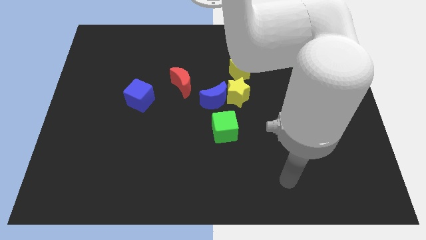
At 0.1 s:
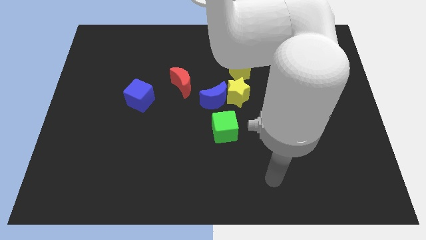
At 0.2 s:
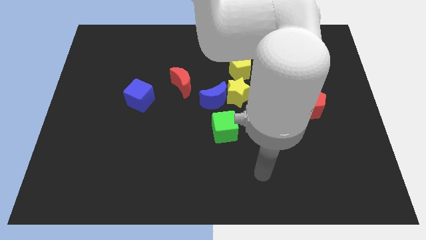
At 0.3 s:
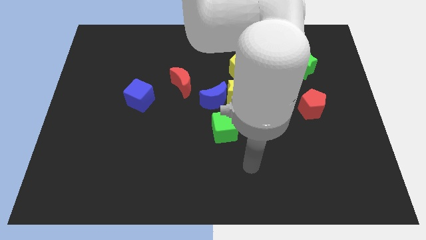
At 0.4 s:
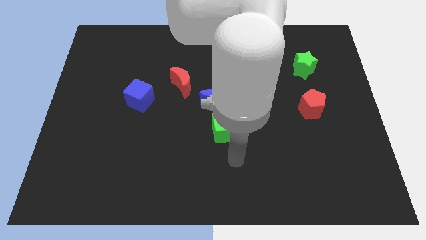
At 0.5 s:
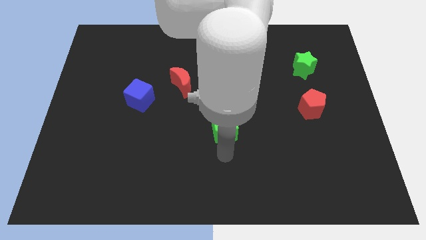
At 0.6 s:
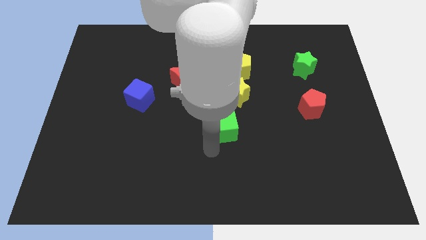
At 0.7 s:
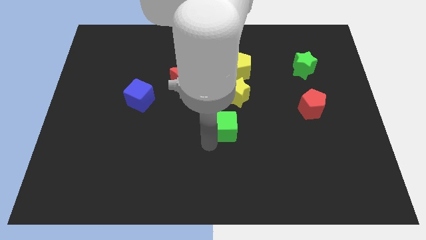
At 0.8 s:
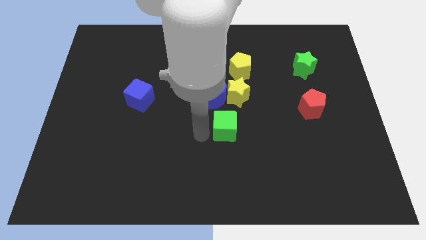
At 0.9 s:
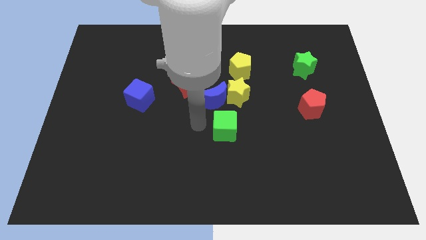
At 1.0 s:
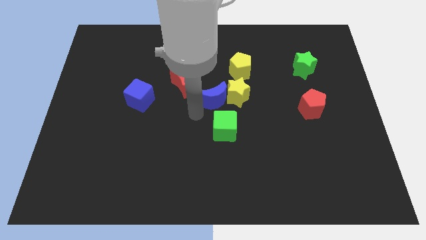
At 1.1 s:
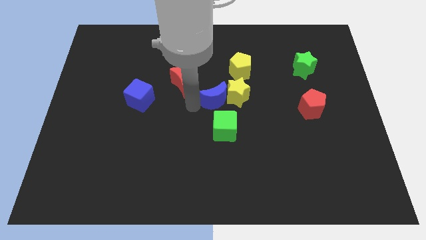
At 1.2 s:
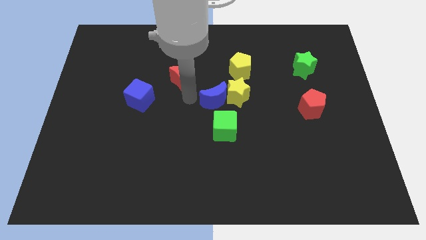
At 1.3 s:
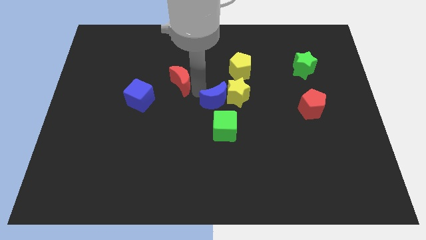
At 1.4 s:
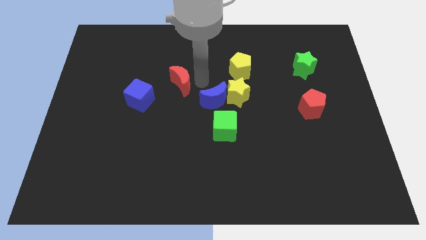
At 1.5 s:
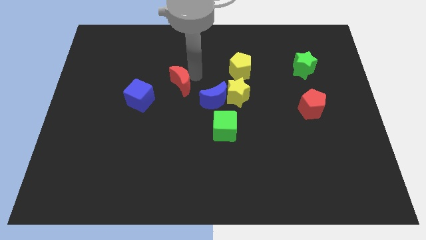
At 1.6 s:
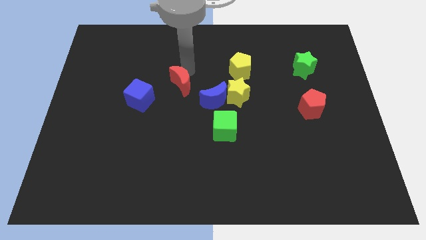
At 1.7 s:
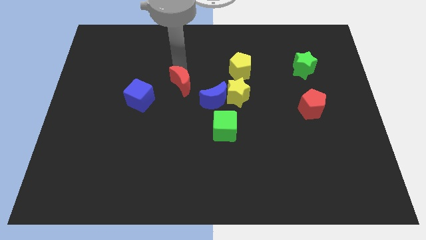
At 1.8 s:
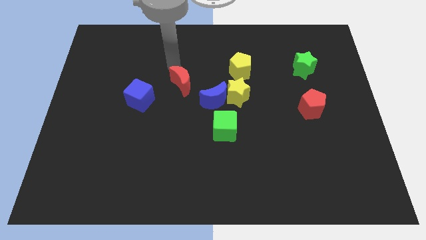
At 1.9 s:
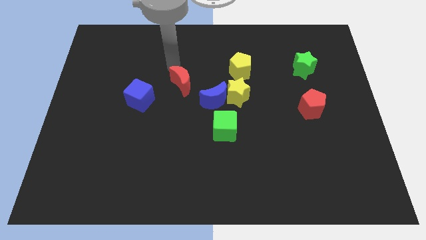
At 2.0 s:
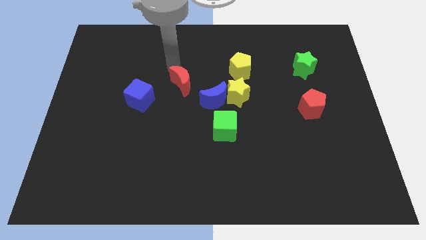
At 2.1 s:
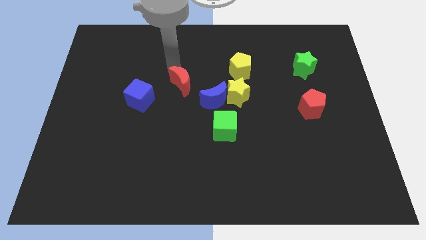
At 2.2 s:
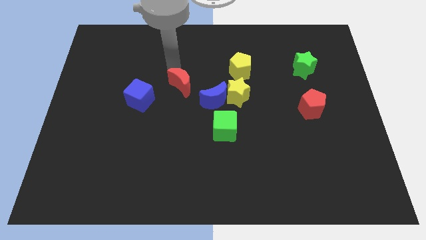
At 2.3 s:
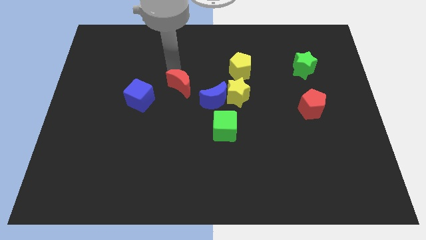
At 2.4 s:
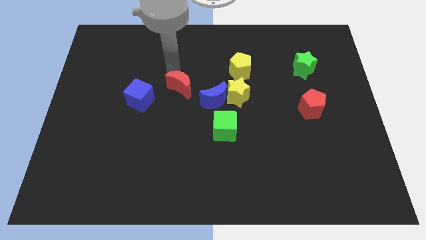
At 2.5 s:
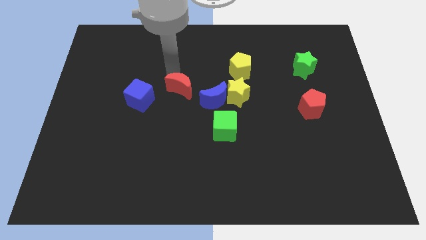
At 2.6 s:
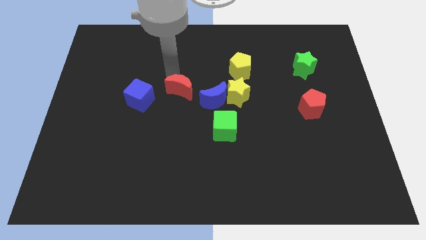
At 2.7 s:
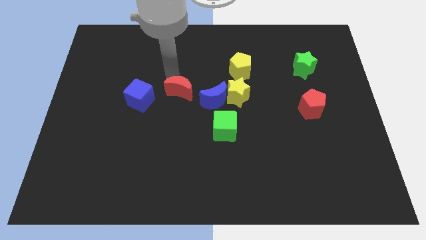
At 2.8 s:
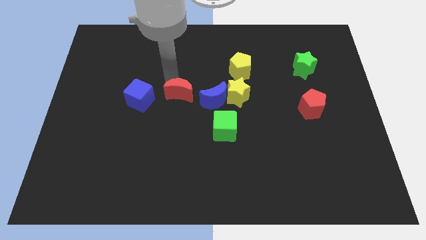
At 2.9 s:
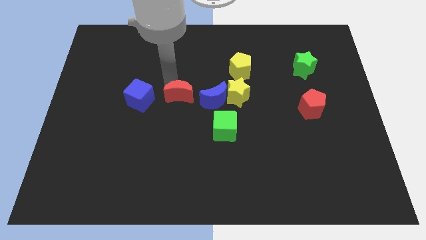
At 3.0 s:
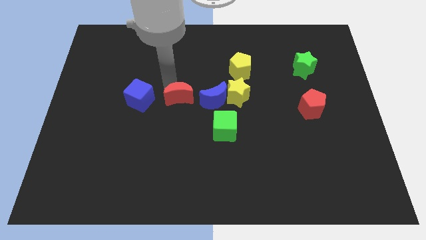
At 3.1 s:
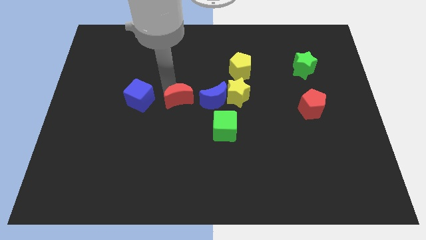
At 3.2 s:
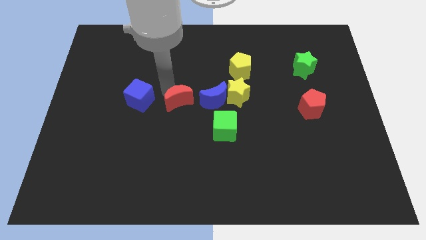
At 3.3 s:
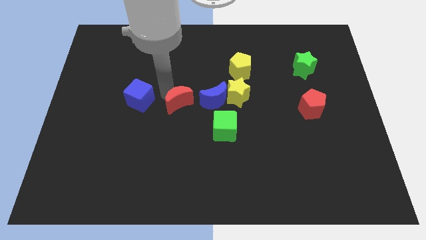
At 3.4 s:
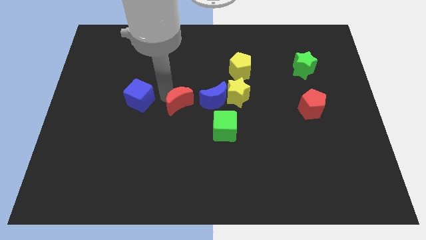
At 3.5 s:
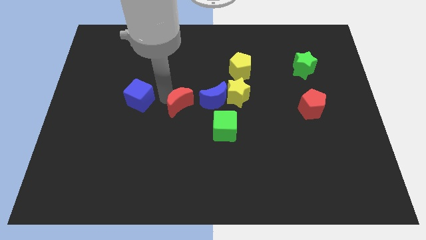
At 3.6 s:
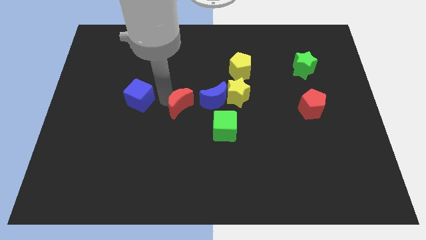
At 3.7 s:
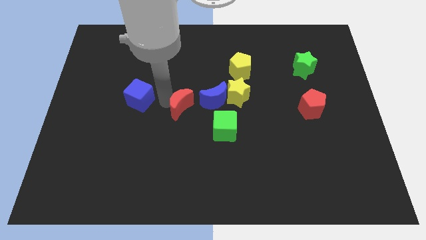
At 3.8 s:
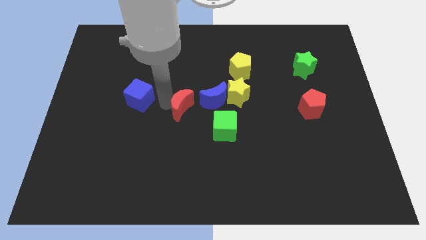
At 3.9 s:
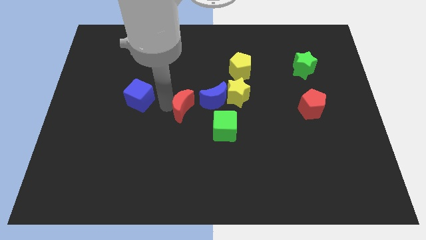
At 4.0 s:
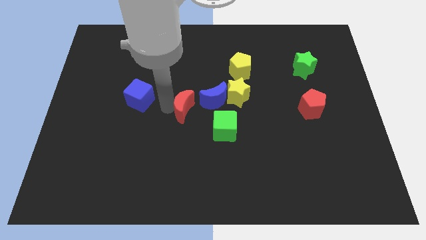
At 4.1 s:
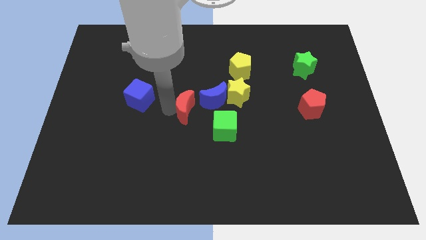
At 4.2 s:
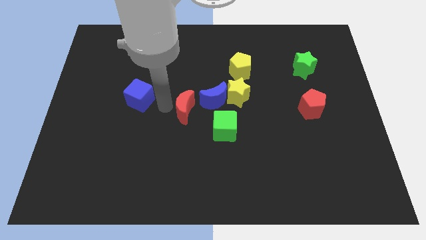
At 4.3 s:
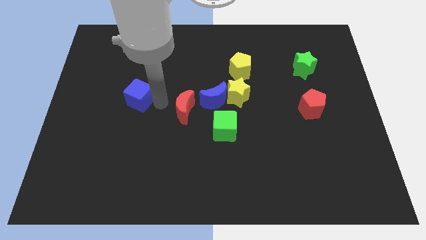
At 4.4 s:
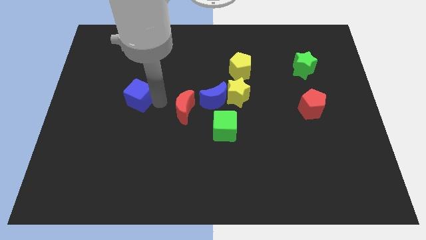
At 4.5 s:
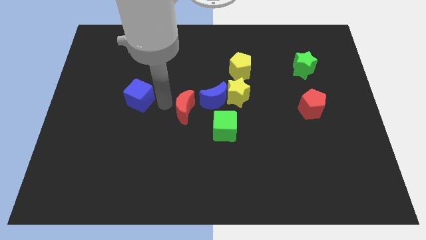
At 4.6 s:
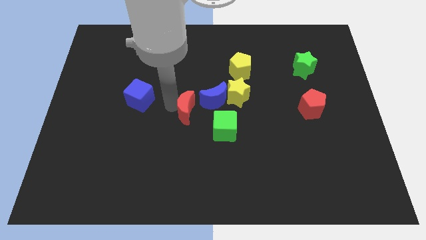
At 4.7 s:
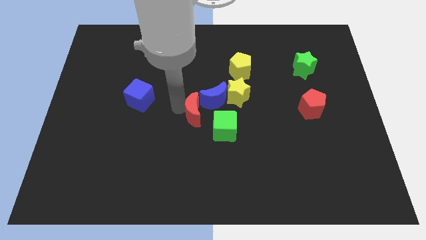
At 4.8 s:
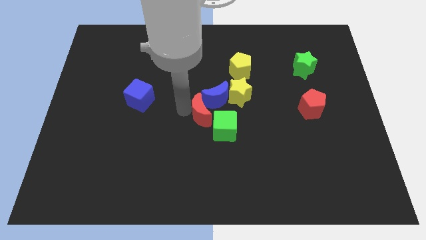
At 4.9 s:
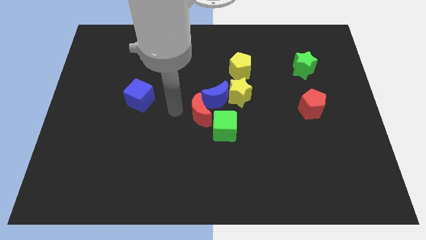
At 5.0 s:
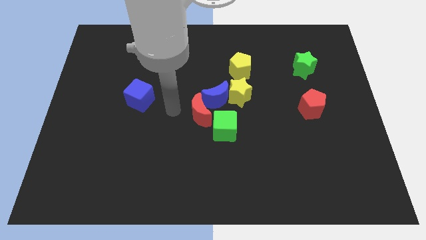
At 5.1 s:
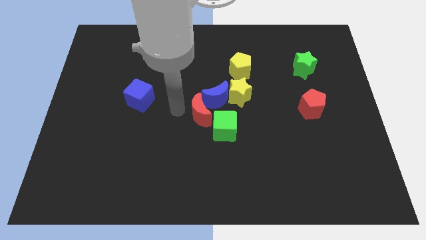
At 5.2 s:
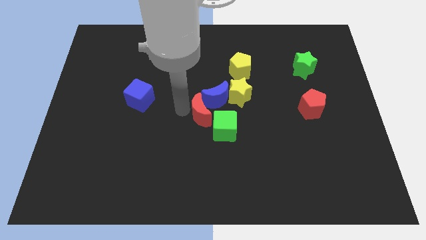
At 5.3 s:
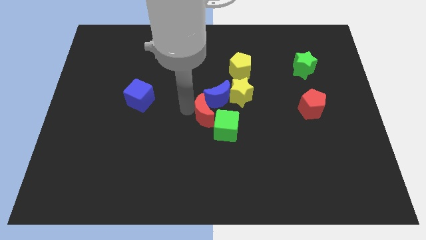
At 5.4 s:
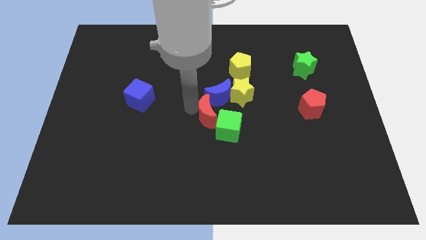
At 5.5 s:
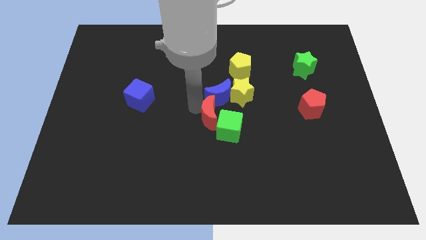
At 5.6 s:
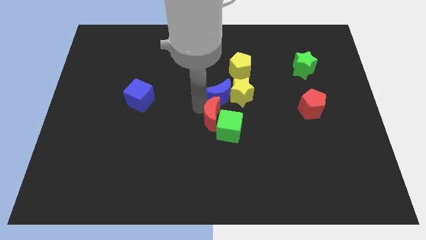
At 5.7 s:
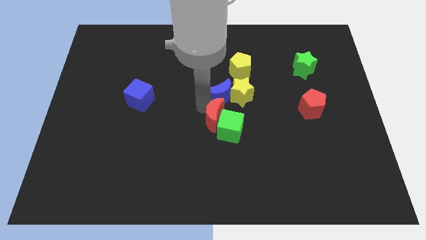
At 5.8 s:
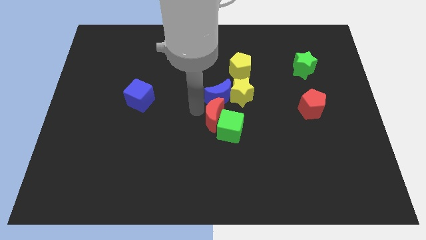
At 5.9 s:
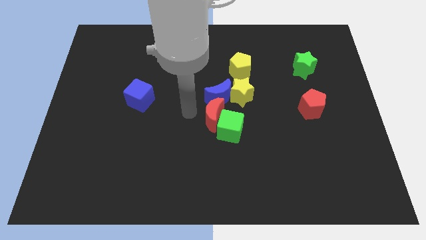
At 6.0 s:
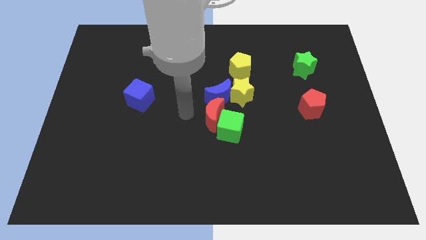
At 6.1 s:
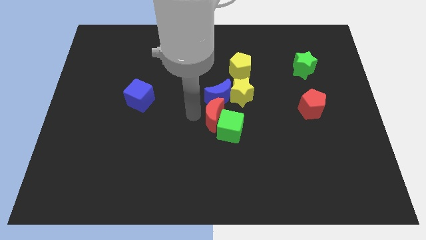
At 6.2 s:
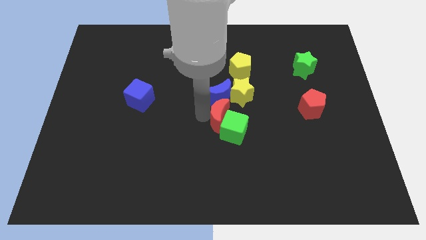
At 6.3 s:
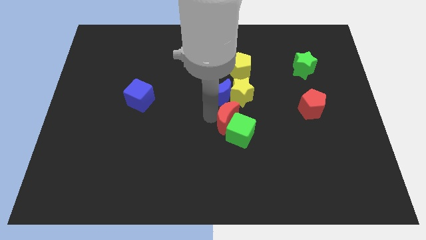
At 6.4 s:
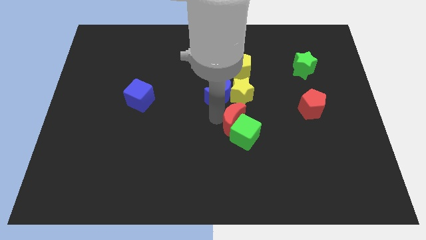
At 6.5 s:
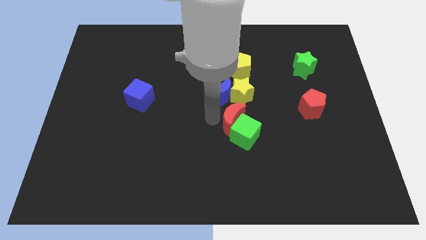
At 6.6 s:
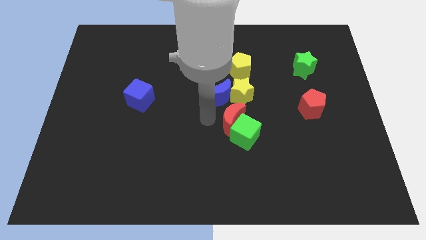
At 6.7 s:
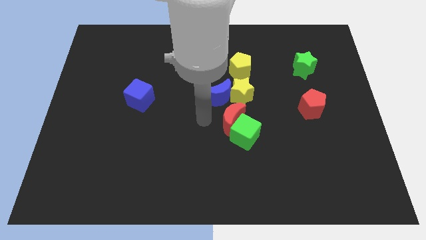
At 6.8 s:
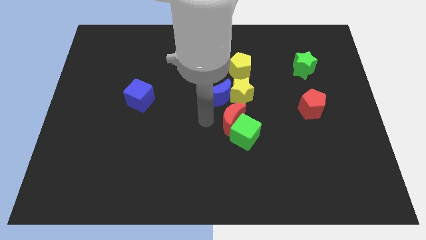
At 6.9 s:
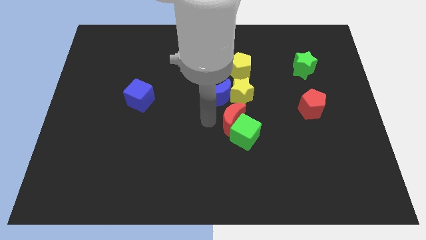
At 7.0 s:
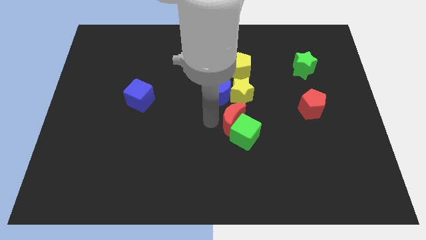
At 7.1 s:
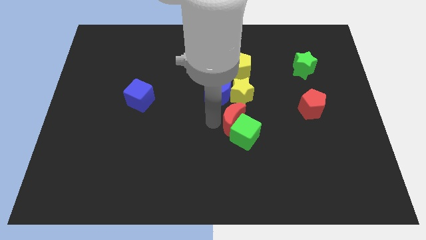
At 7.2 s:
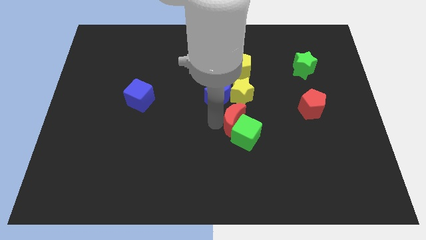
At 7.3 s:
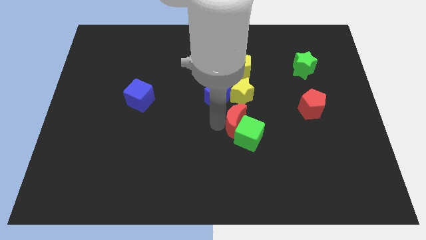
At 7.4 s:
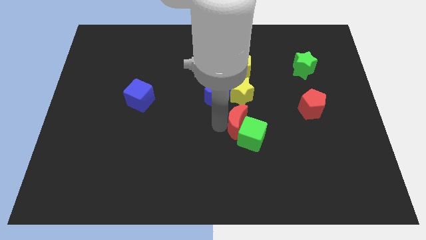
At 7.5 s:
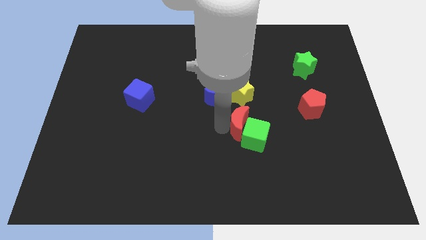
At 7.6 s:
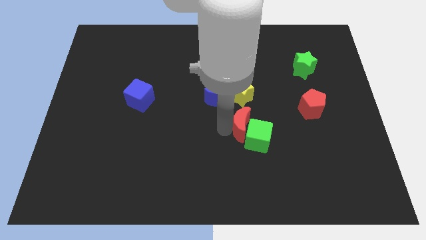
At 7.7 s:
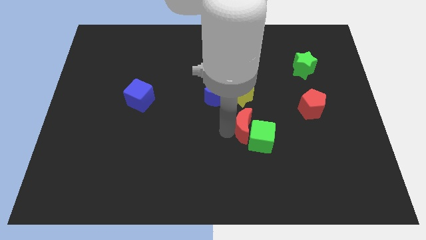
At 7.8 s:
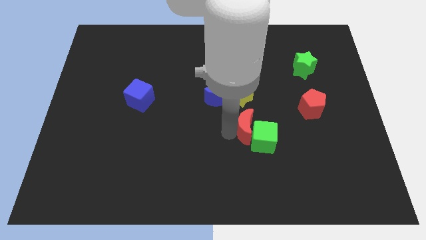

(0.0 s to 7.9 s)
slide the red moon downwards and then to the right
